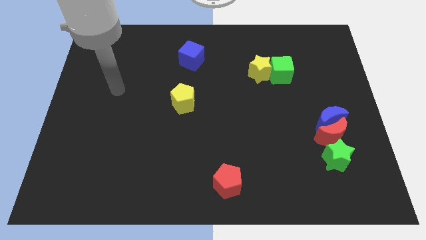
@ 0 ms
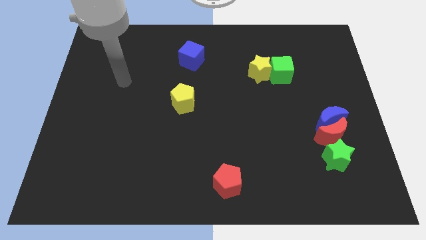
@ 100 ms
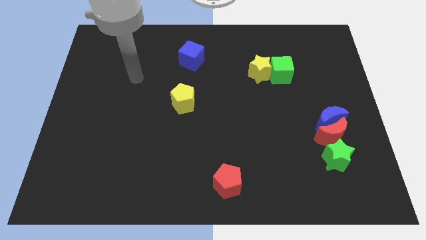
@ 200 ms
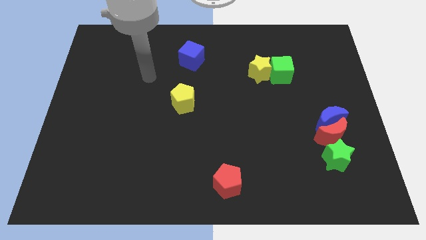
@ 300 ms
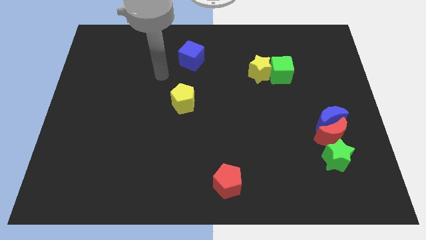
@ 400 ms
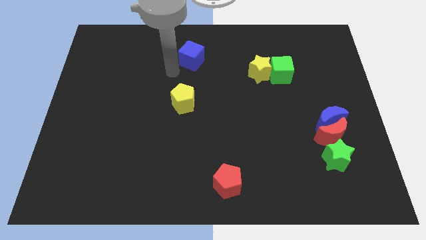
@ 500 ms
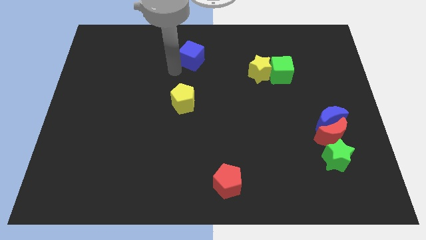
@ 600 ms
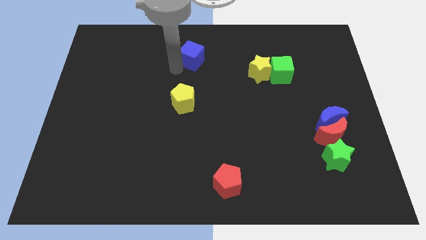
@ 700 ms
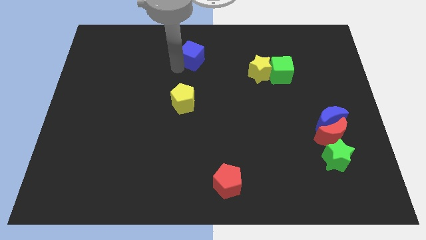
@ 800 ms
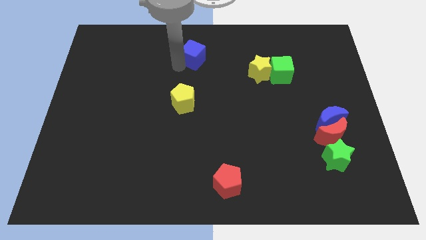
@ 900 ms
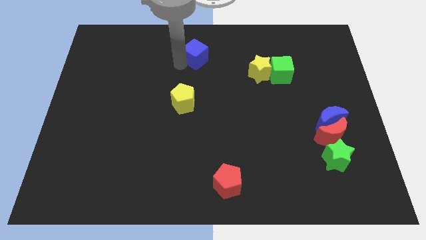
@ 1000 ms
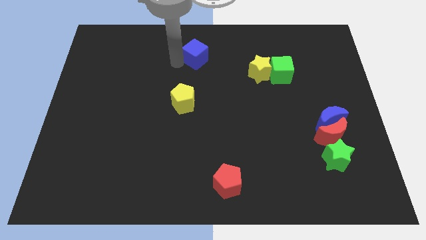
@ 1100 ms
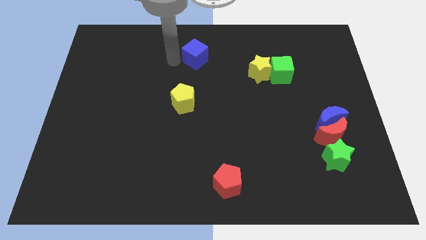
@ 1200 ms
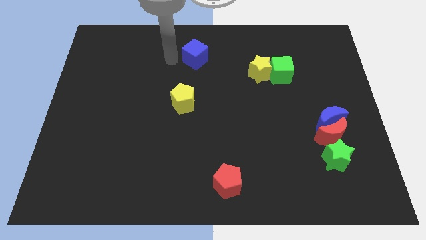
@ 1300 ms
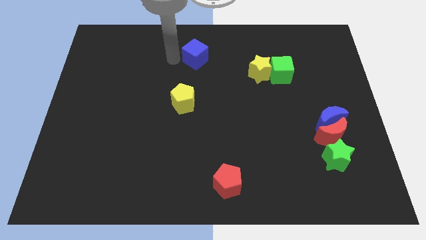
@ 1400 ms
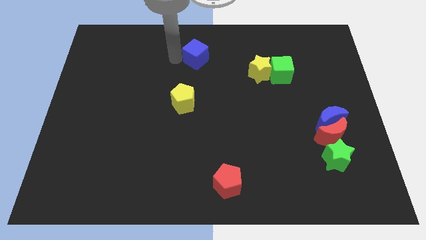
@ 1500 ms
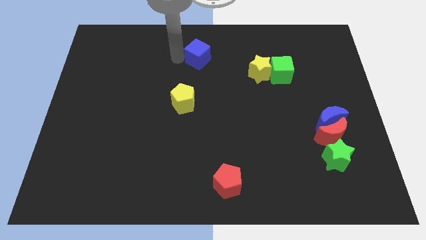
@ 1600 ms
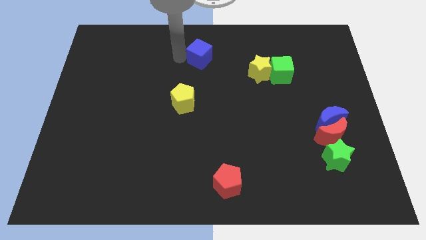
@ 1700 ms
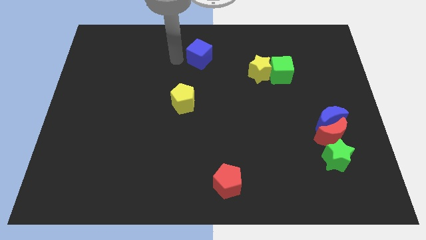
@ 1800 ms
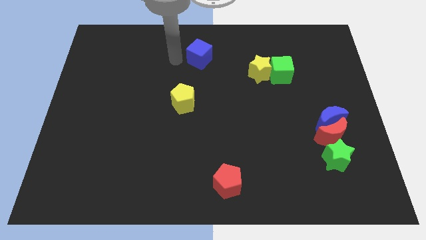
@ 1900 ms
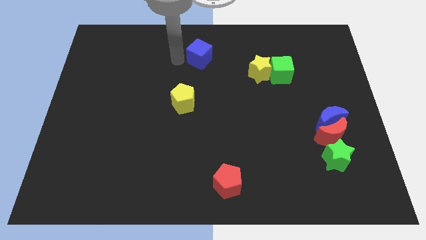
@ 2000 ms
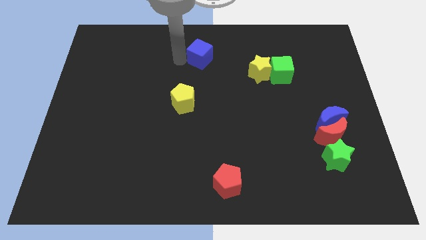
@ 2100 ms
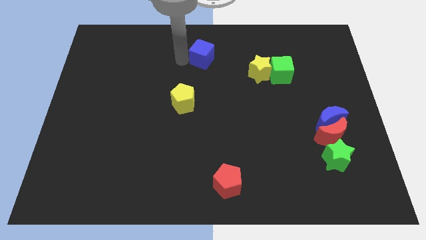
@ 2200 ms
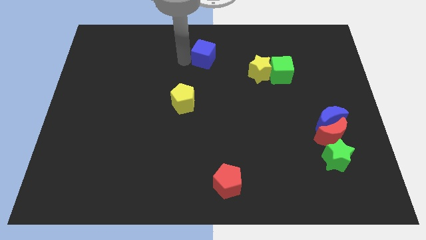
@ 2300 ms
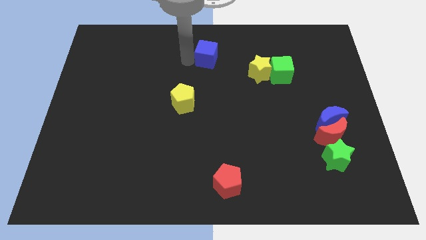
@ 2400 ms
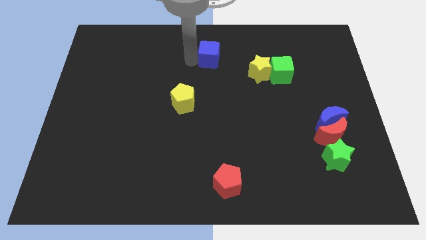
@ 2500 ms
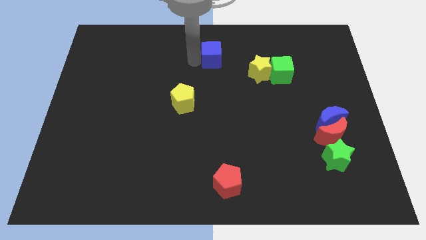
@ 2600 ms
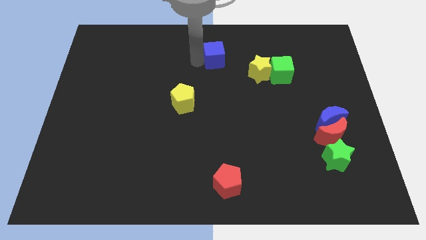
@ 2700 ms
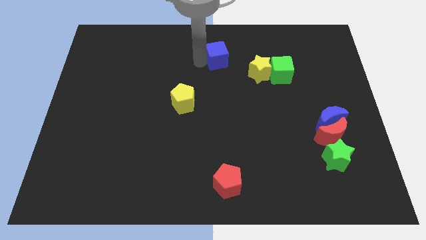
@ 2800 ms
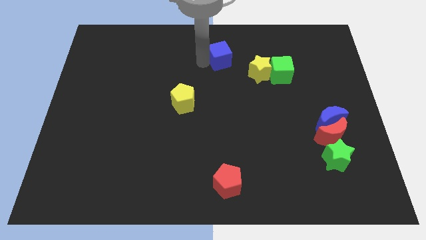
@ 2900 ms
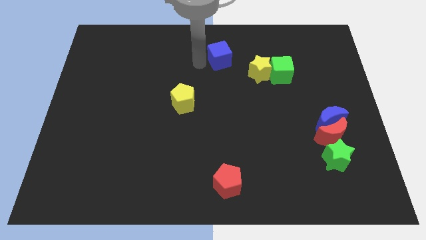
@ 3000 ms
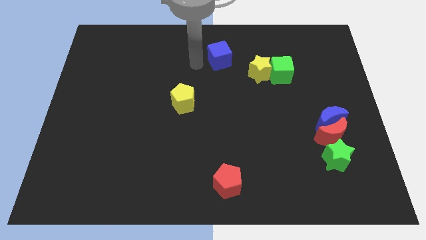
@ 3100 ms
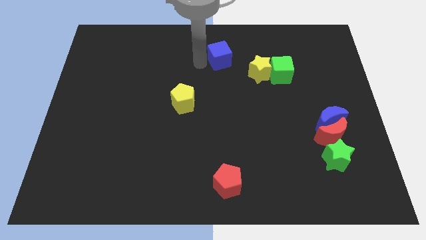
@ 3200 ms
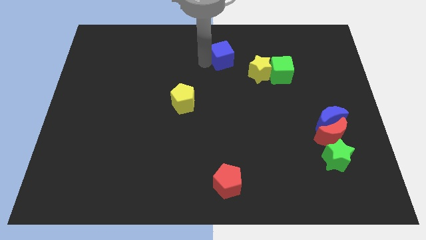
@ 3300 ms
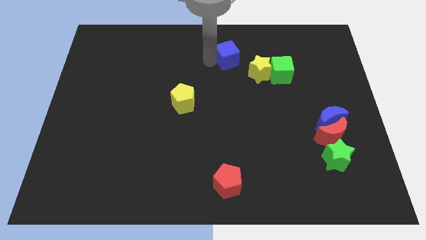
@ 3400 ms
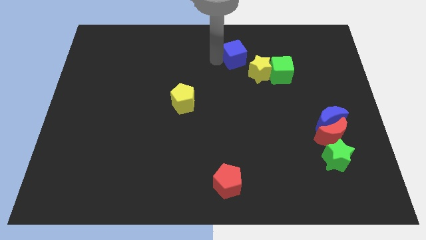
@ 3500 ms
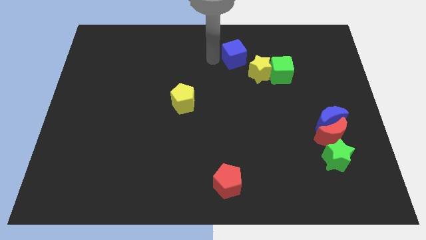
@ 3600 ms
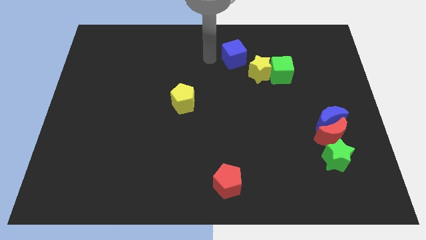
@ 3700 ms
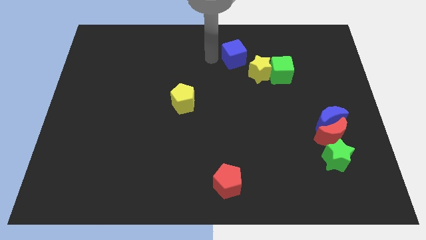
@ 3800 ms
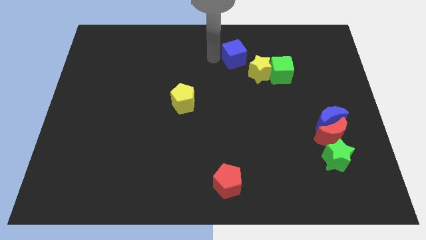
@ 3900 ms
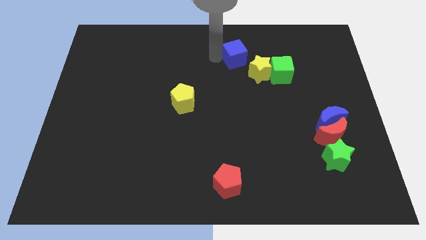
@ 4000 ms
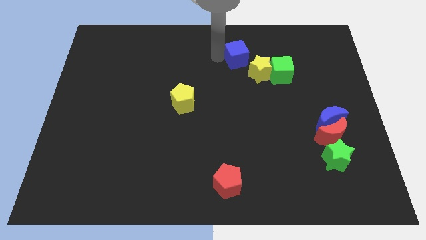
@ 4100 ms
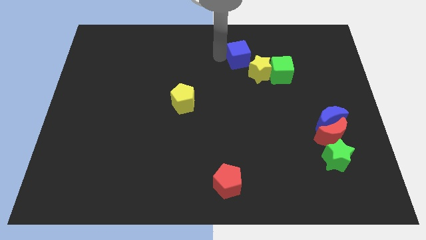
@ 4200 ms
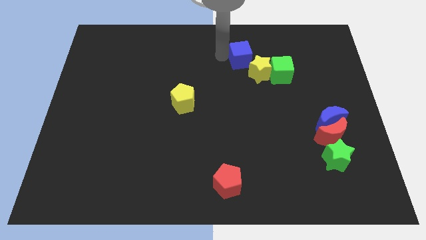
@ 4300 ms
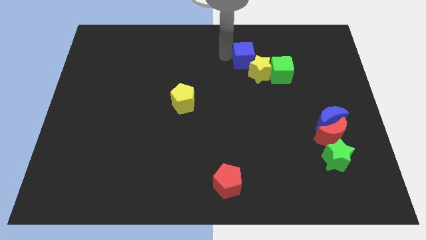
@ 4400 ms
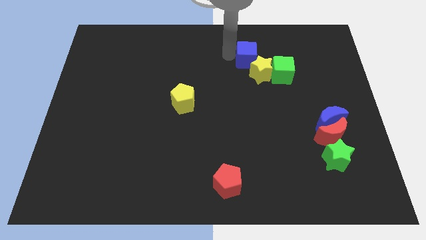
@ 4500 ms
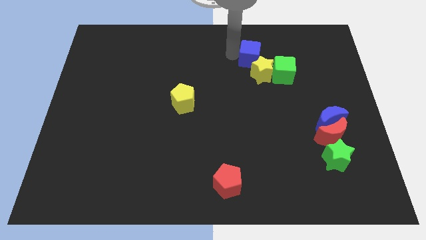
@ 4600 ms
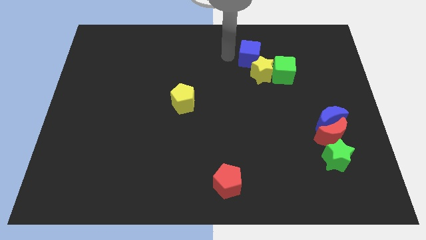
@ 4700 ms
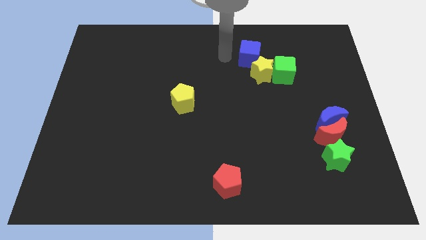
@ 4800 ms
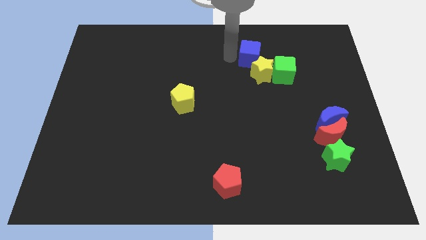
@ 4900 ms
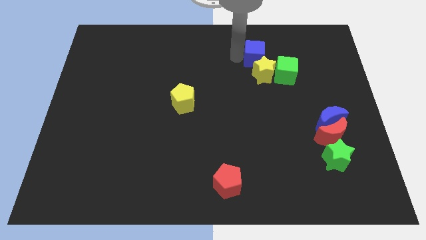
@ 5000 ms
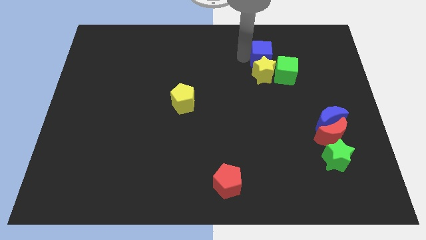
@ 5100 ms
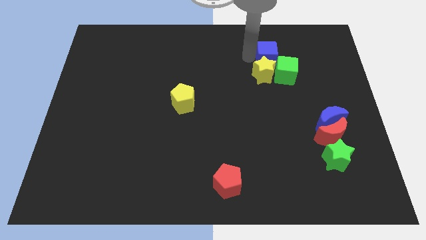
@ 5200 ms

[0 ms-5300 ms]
move the blue cube to the right

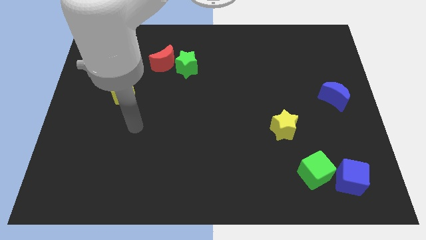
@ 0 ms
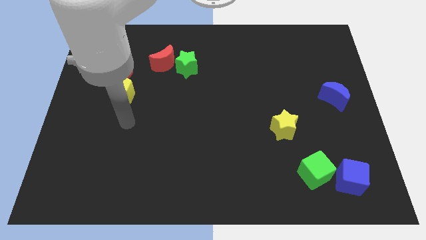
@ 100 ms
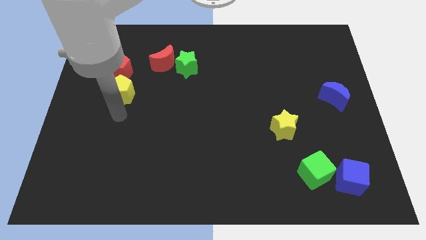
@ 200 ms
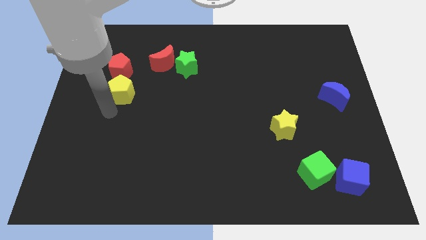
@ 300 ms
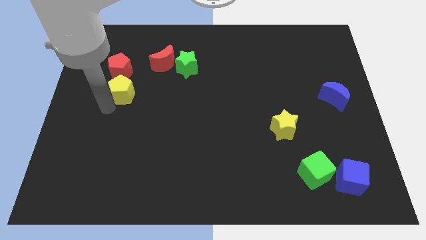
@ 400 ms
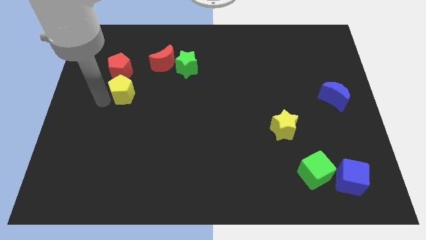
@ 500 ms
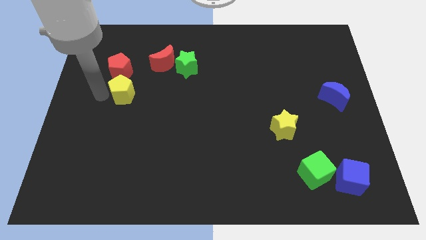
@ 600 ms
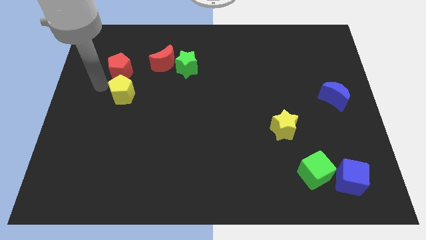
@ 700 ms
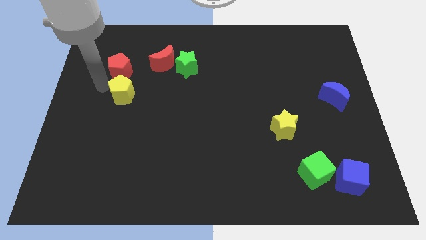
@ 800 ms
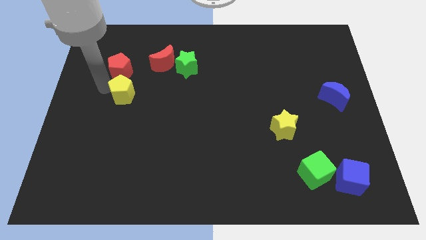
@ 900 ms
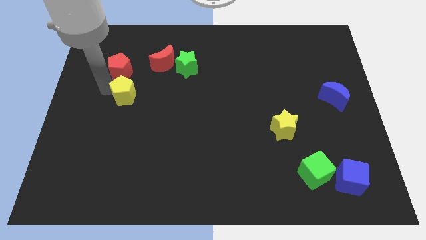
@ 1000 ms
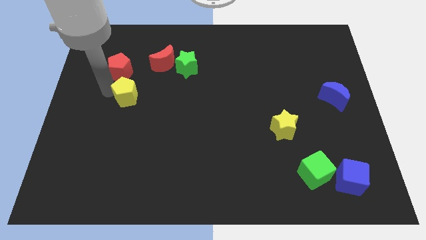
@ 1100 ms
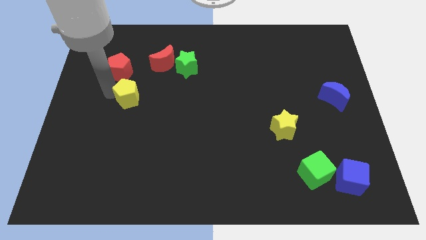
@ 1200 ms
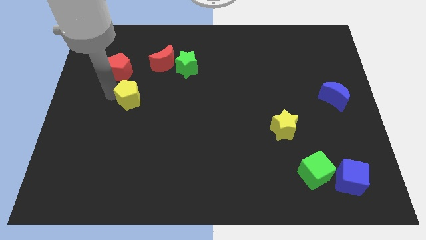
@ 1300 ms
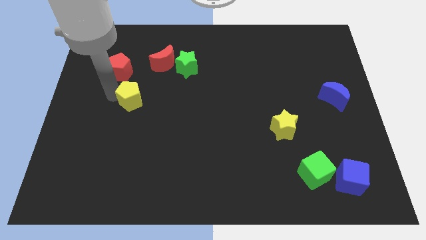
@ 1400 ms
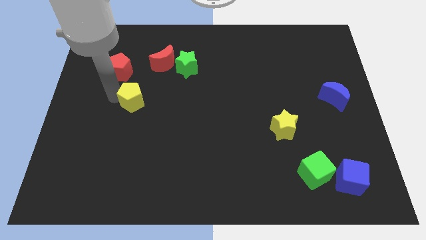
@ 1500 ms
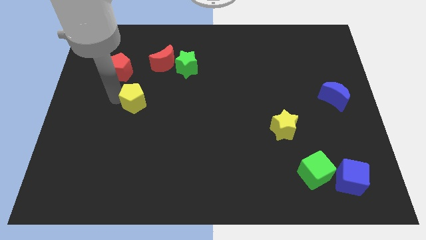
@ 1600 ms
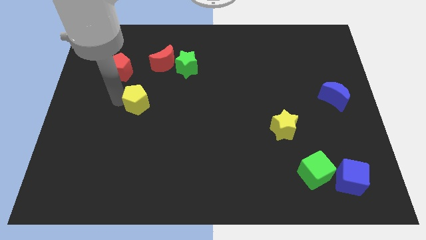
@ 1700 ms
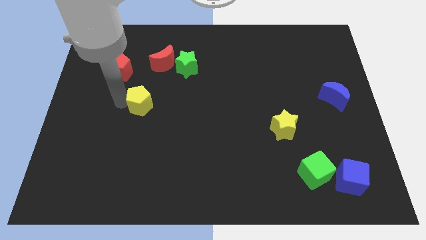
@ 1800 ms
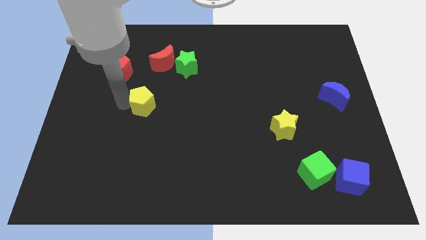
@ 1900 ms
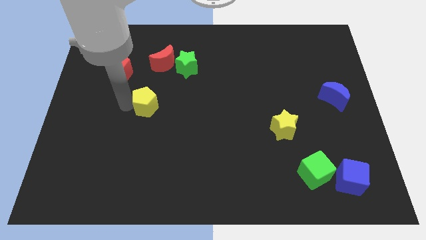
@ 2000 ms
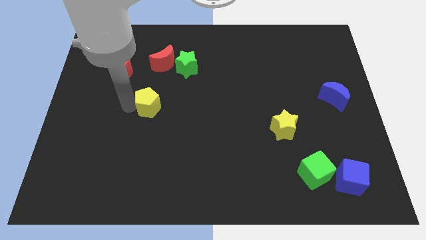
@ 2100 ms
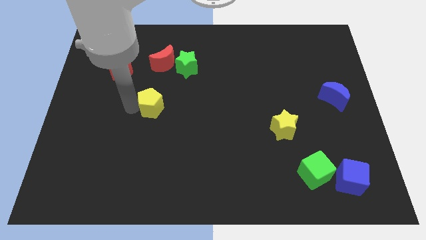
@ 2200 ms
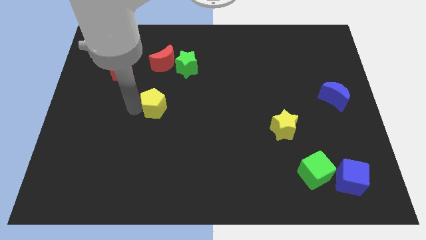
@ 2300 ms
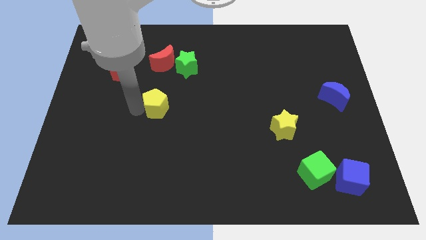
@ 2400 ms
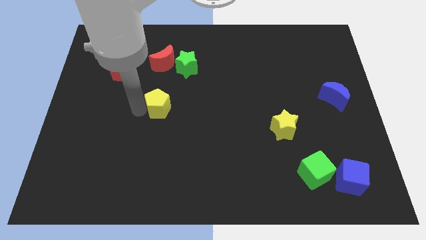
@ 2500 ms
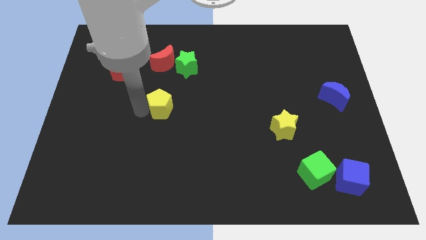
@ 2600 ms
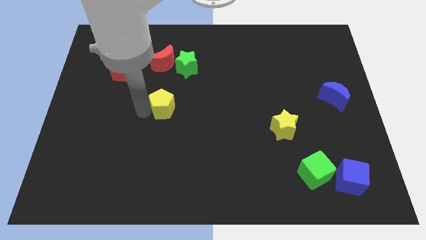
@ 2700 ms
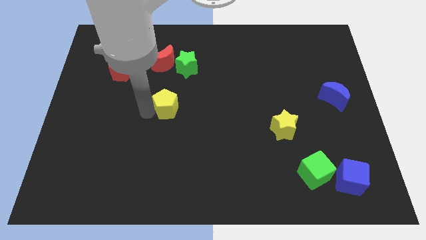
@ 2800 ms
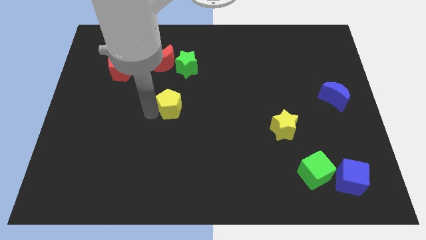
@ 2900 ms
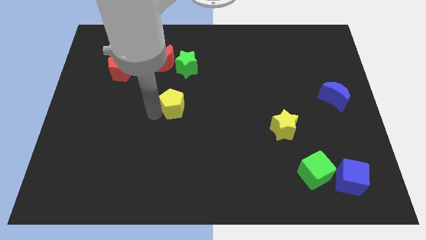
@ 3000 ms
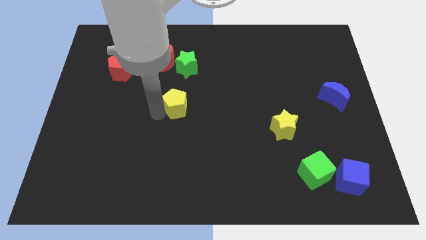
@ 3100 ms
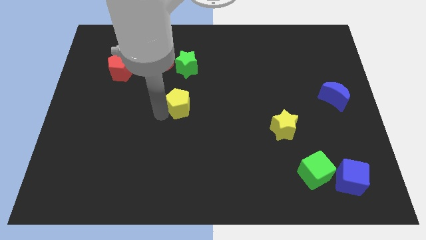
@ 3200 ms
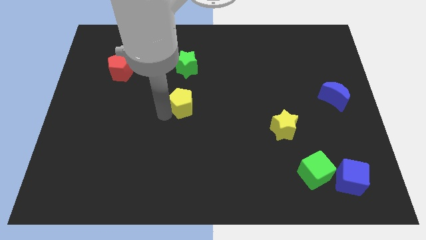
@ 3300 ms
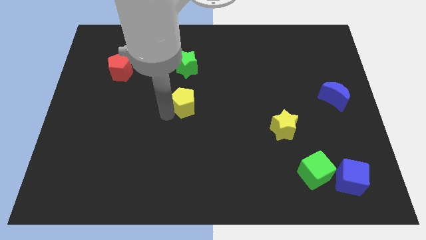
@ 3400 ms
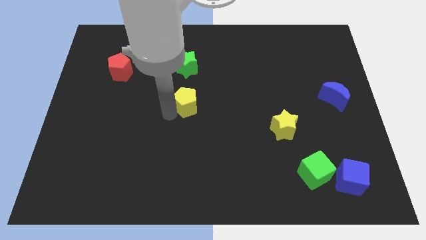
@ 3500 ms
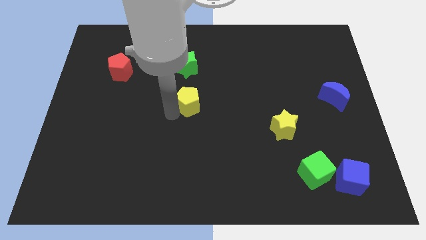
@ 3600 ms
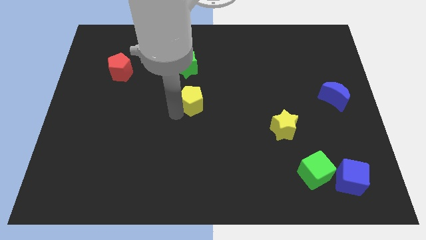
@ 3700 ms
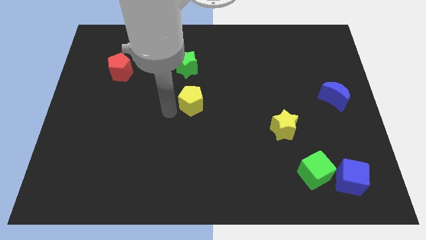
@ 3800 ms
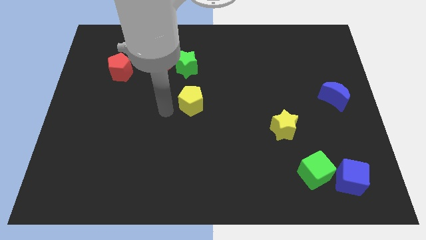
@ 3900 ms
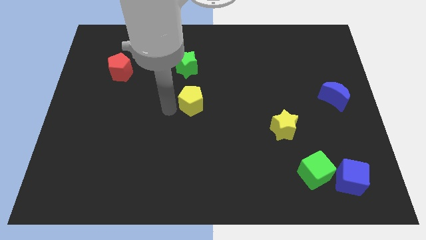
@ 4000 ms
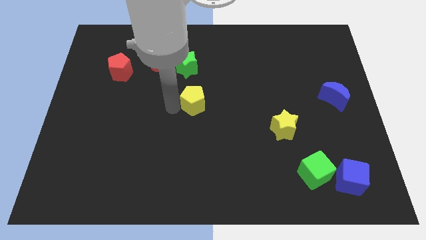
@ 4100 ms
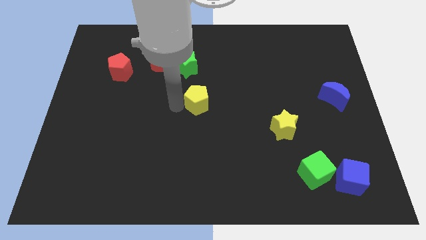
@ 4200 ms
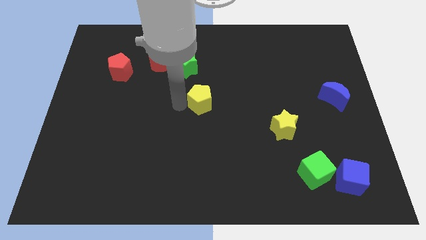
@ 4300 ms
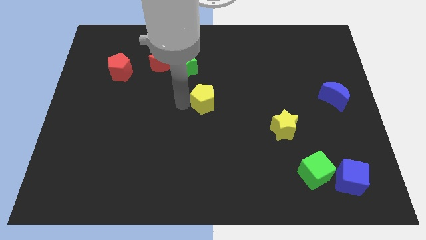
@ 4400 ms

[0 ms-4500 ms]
slide the yellow pentagon to the right
